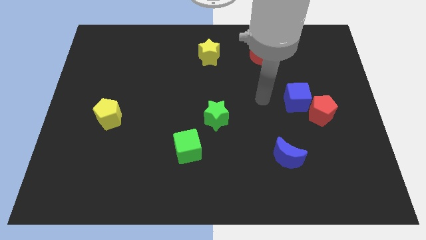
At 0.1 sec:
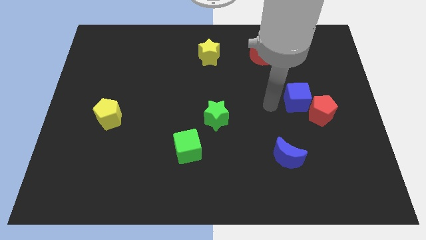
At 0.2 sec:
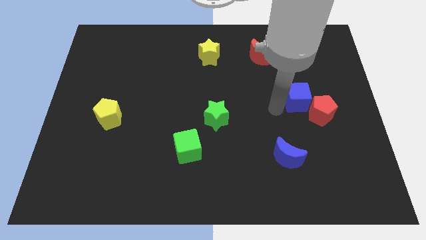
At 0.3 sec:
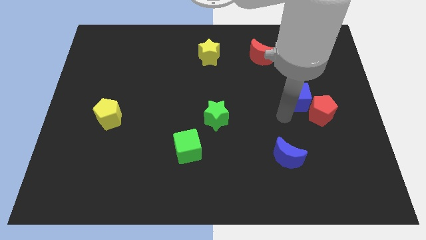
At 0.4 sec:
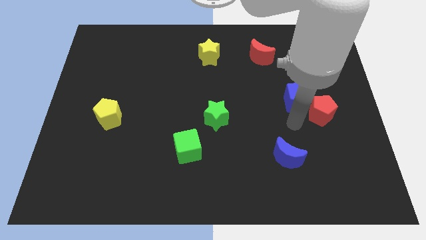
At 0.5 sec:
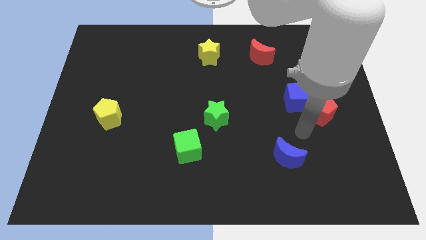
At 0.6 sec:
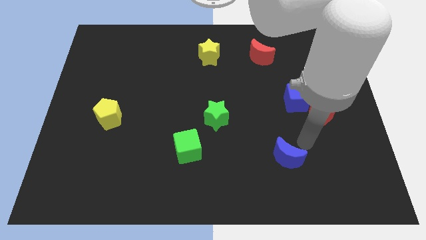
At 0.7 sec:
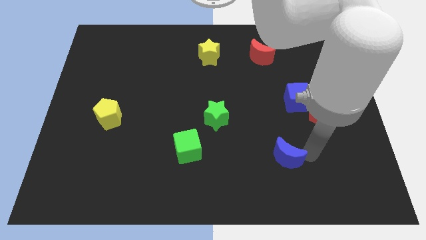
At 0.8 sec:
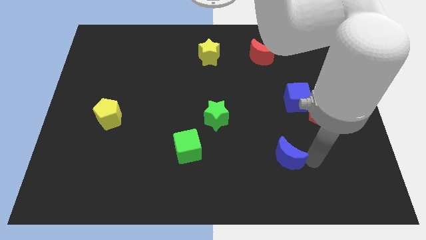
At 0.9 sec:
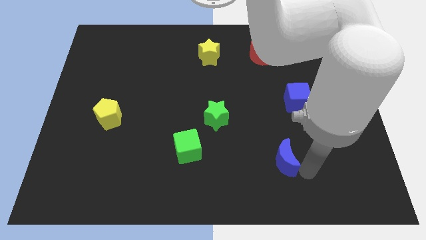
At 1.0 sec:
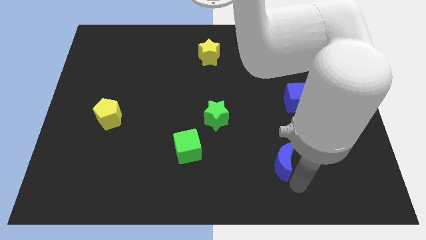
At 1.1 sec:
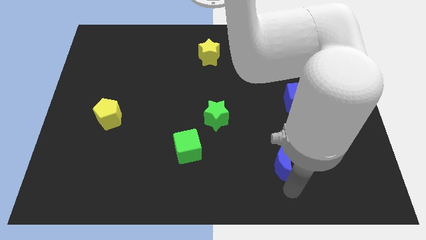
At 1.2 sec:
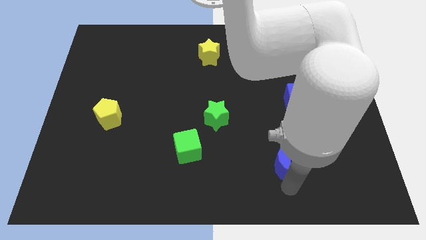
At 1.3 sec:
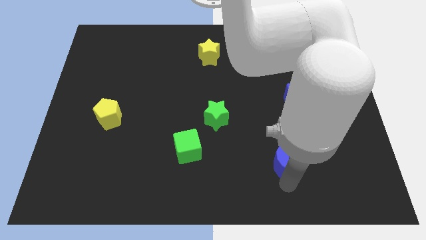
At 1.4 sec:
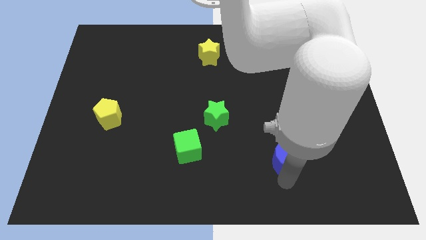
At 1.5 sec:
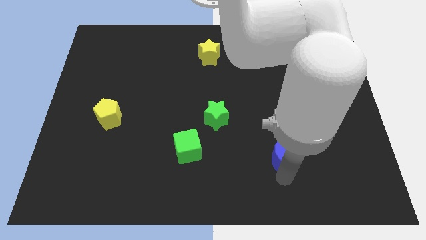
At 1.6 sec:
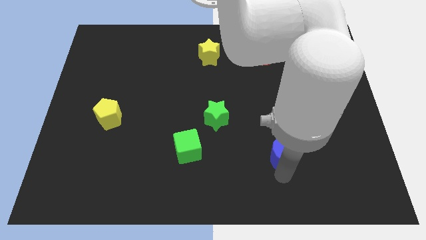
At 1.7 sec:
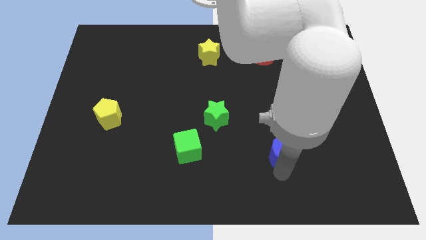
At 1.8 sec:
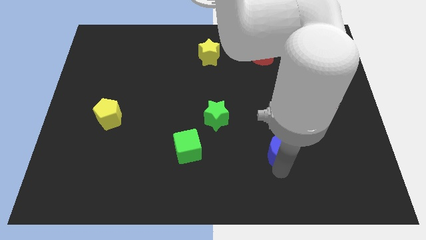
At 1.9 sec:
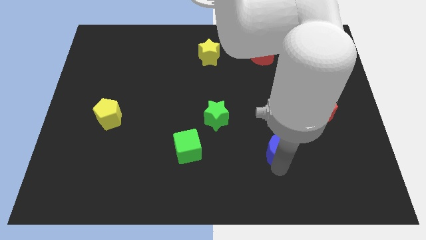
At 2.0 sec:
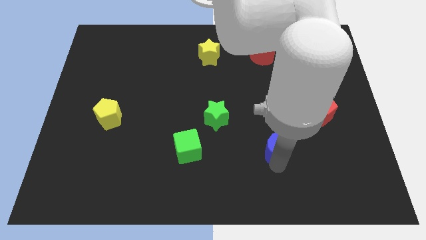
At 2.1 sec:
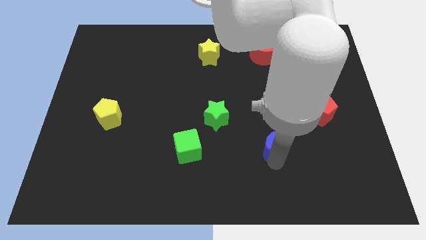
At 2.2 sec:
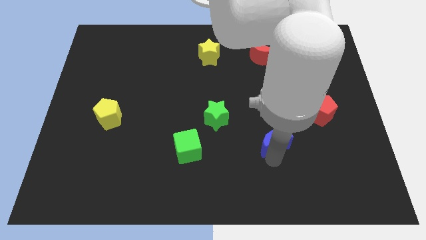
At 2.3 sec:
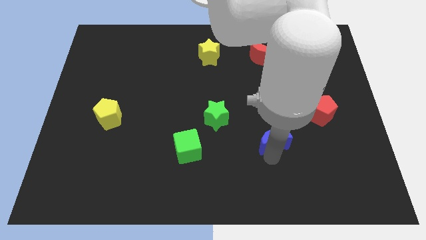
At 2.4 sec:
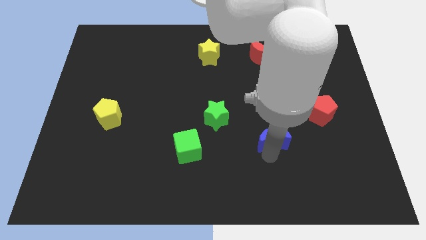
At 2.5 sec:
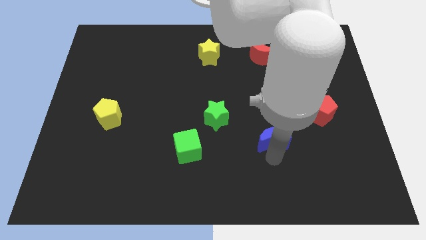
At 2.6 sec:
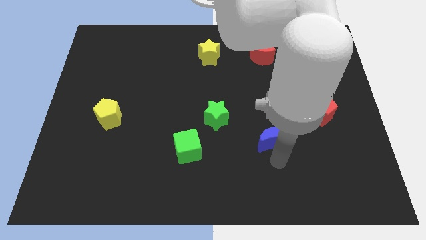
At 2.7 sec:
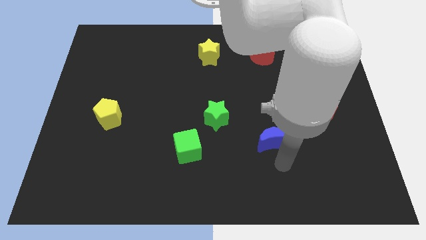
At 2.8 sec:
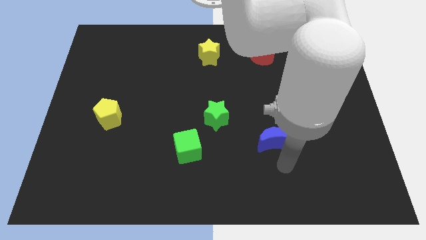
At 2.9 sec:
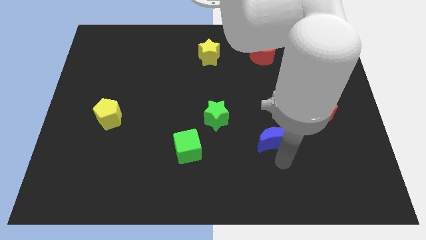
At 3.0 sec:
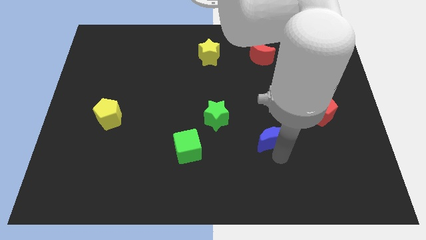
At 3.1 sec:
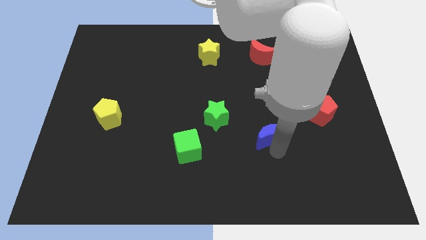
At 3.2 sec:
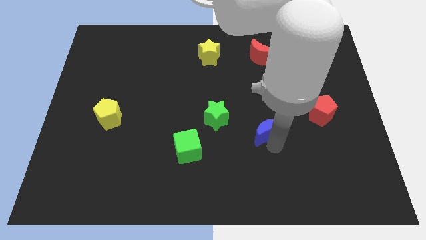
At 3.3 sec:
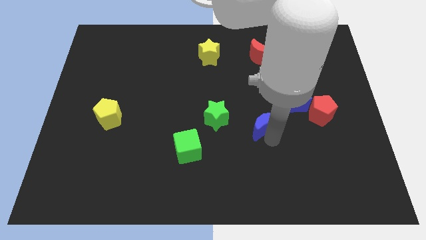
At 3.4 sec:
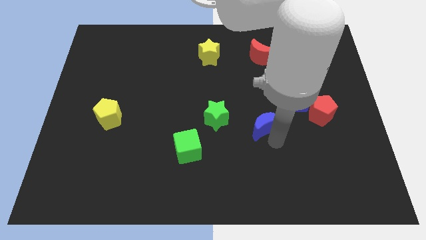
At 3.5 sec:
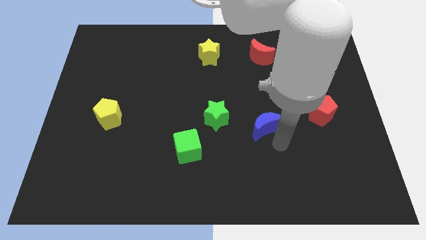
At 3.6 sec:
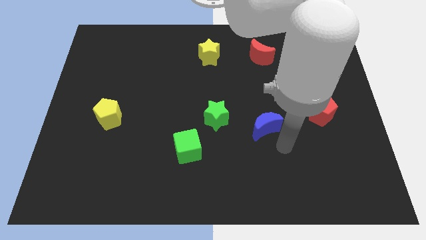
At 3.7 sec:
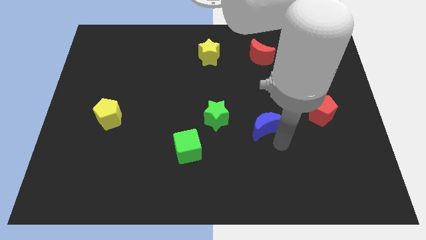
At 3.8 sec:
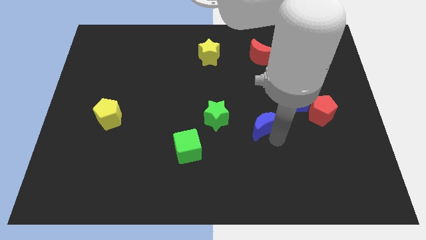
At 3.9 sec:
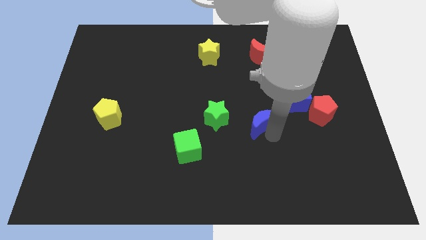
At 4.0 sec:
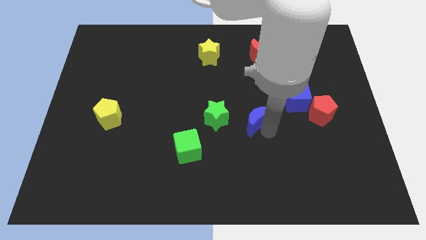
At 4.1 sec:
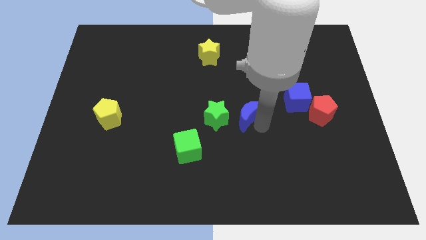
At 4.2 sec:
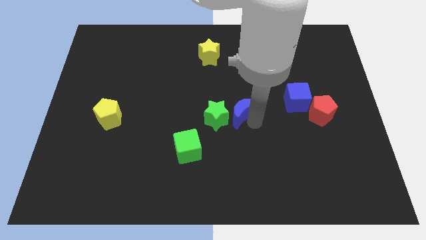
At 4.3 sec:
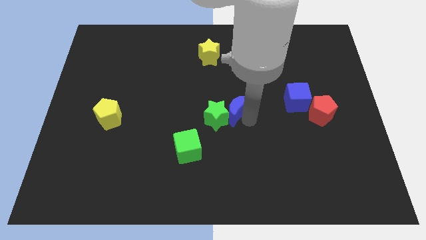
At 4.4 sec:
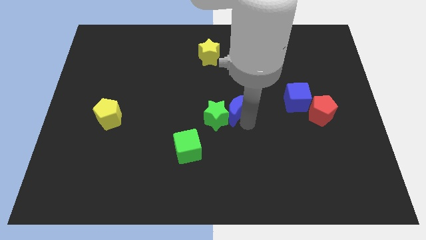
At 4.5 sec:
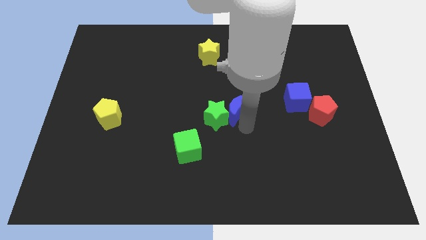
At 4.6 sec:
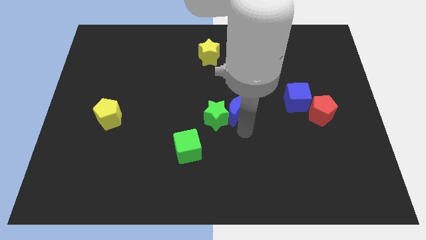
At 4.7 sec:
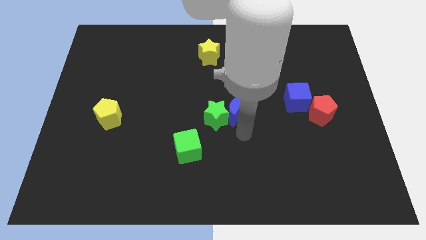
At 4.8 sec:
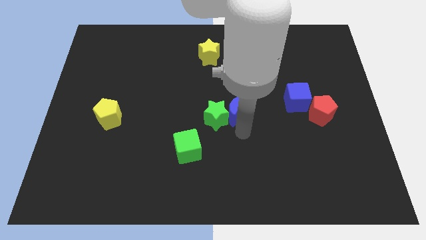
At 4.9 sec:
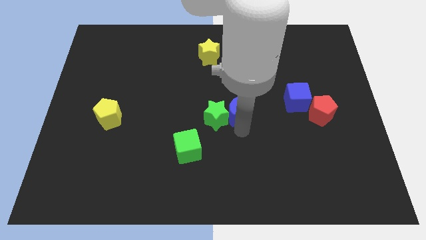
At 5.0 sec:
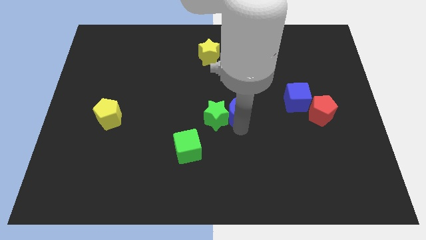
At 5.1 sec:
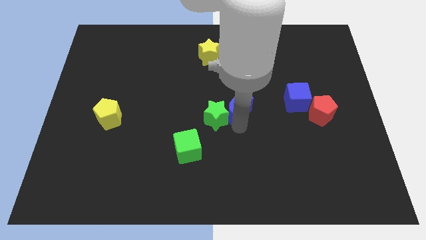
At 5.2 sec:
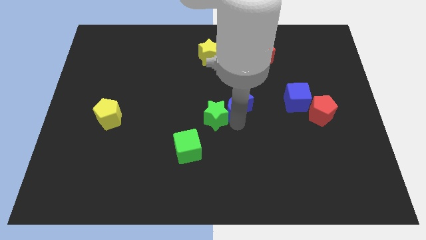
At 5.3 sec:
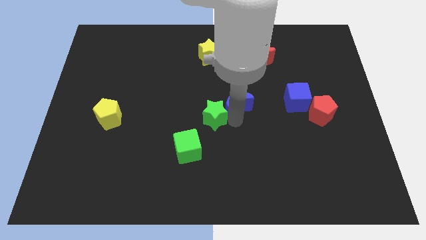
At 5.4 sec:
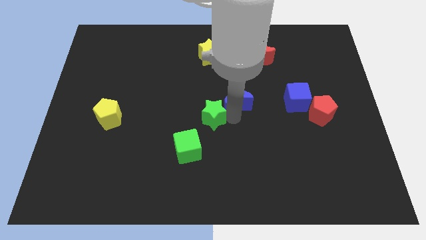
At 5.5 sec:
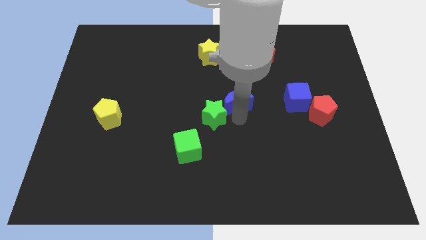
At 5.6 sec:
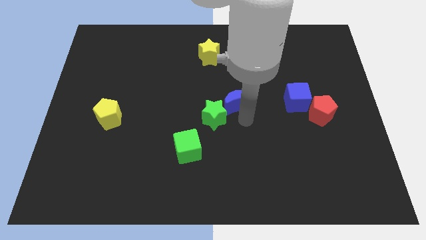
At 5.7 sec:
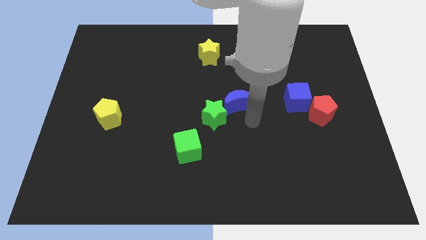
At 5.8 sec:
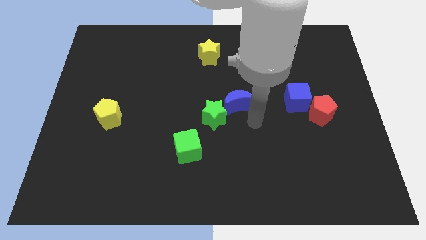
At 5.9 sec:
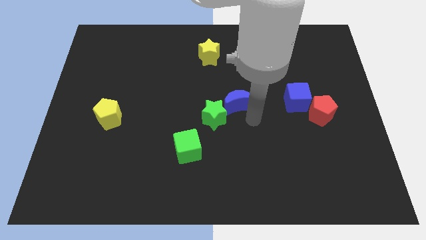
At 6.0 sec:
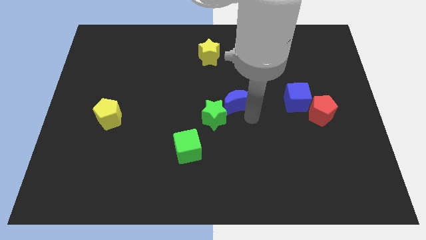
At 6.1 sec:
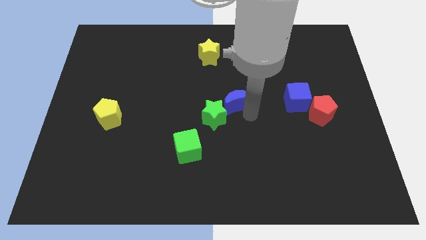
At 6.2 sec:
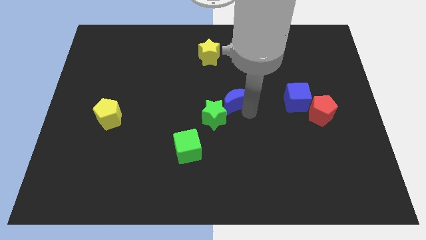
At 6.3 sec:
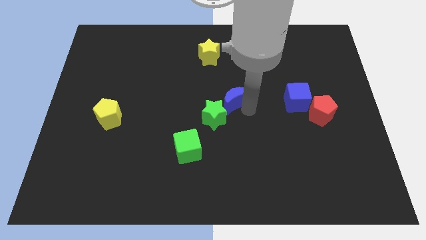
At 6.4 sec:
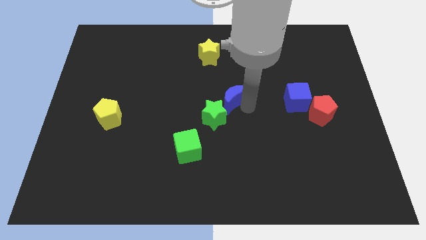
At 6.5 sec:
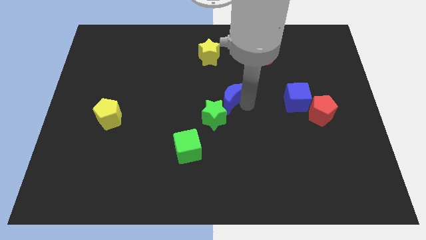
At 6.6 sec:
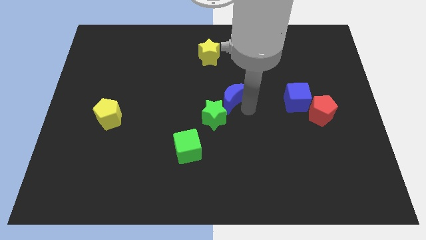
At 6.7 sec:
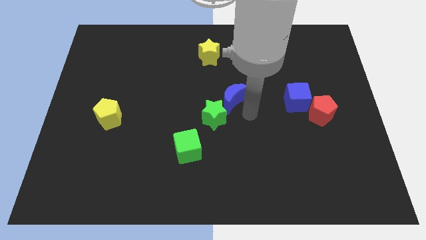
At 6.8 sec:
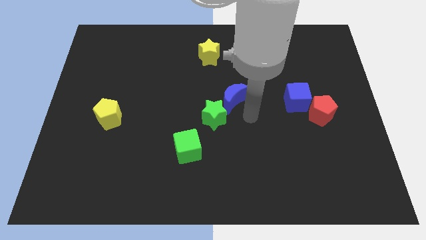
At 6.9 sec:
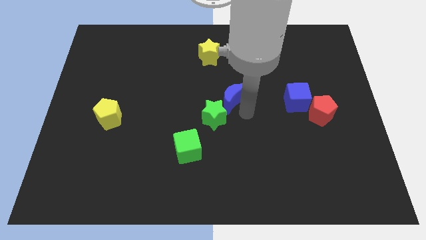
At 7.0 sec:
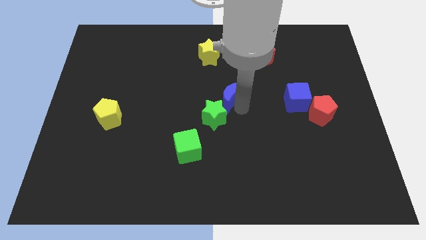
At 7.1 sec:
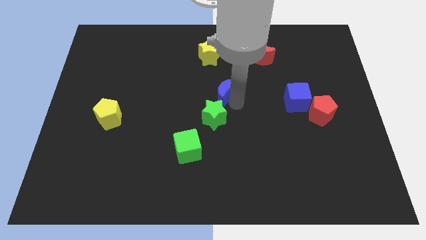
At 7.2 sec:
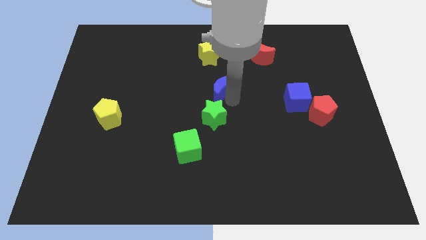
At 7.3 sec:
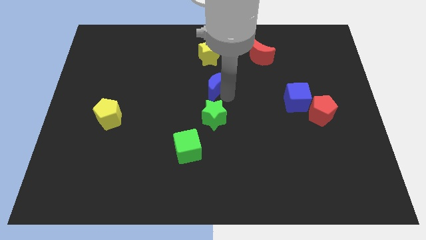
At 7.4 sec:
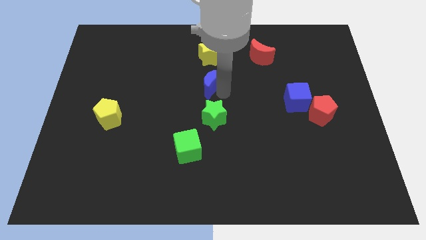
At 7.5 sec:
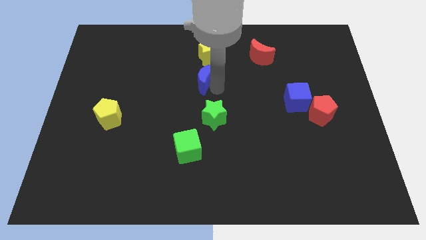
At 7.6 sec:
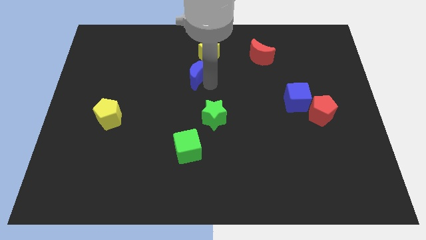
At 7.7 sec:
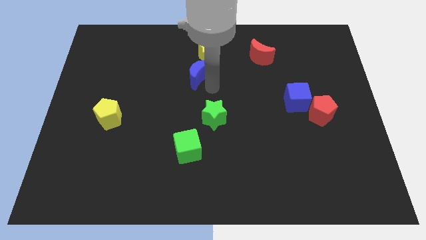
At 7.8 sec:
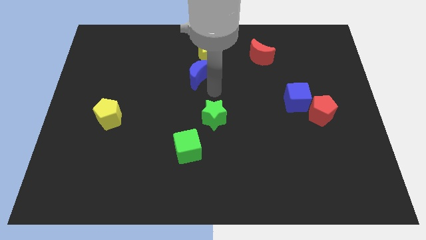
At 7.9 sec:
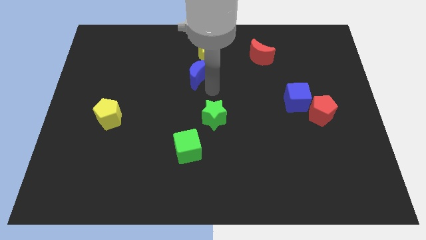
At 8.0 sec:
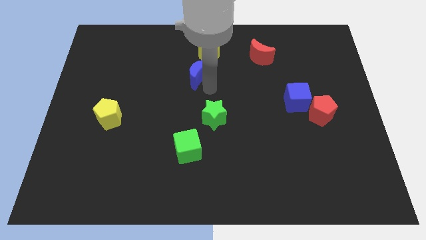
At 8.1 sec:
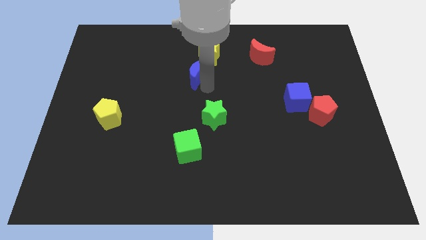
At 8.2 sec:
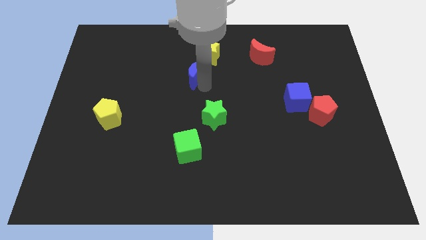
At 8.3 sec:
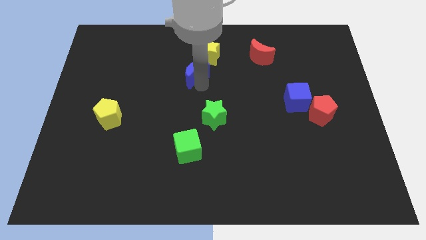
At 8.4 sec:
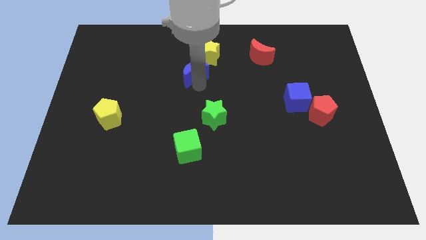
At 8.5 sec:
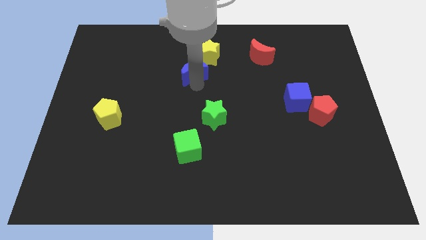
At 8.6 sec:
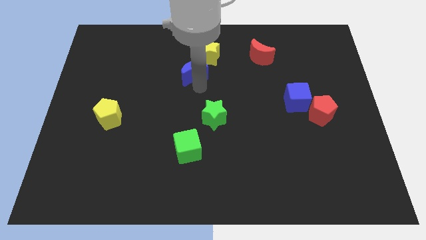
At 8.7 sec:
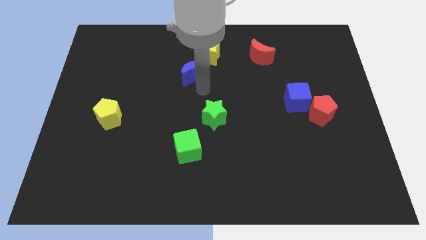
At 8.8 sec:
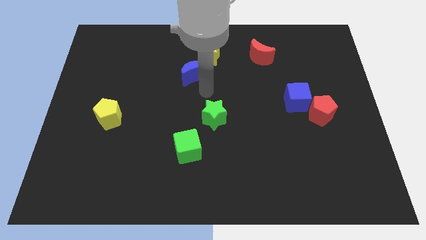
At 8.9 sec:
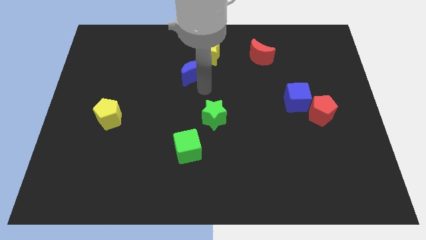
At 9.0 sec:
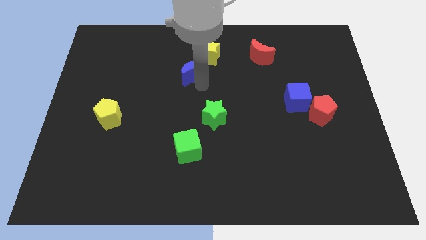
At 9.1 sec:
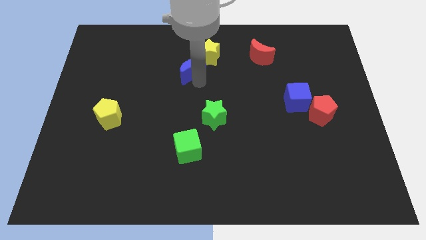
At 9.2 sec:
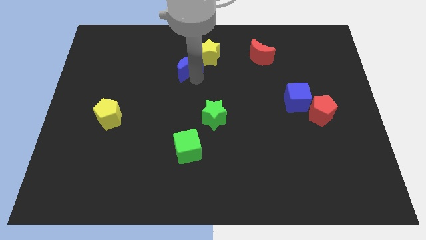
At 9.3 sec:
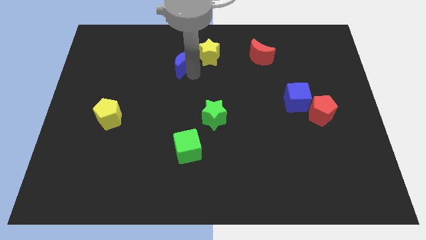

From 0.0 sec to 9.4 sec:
slide the blue moon to the left of the yellow star
